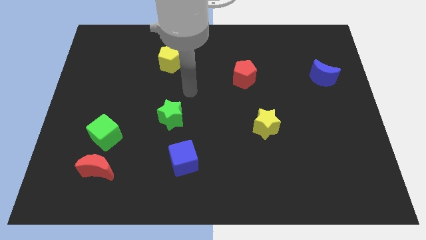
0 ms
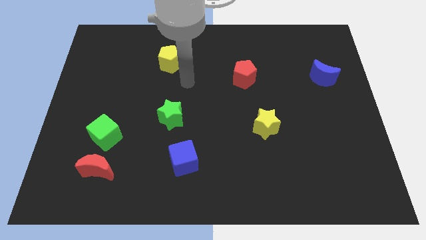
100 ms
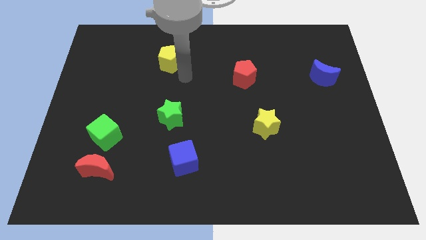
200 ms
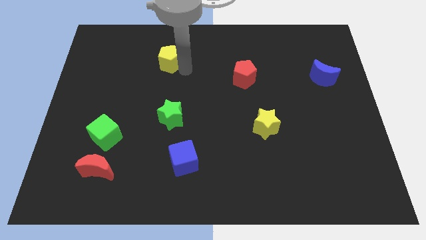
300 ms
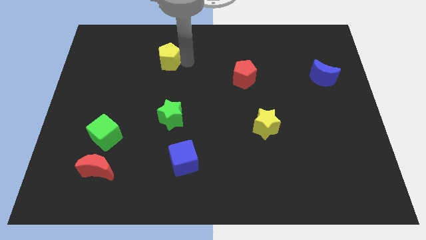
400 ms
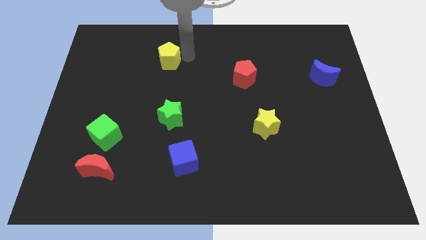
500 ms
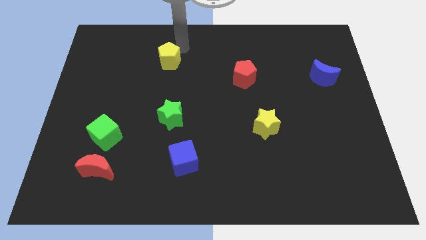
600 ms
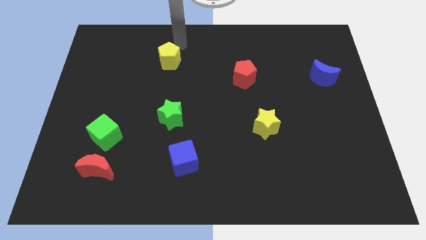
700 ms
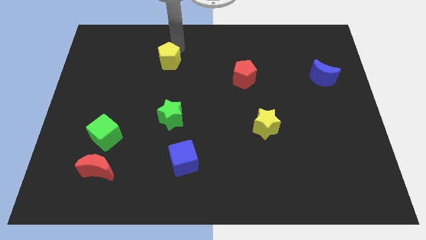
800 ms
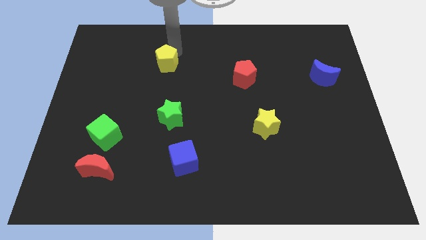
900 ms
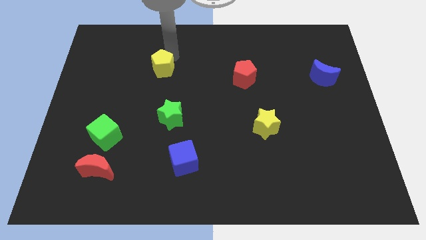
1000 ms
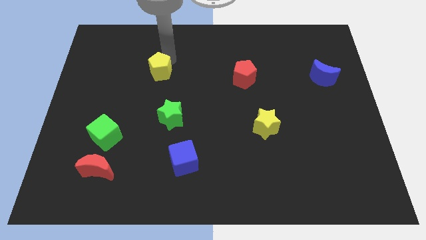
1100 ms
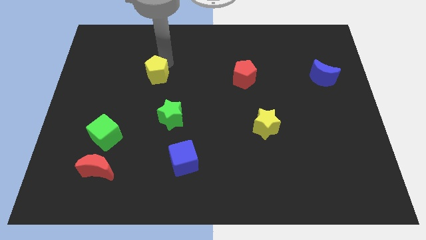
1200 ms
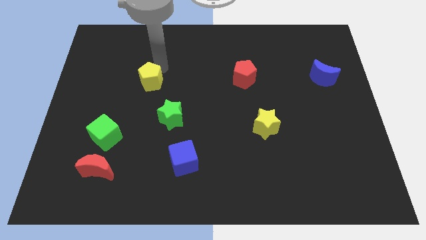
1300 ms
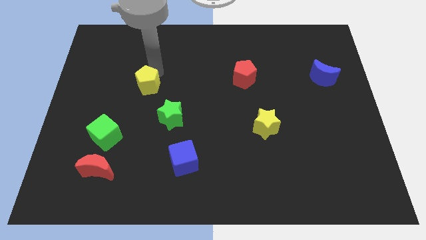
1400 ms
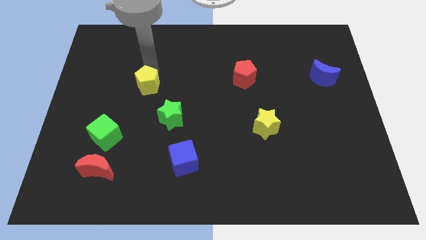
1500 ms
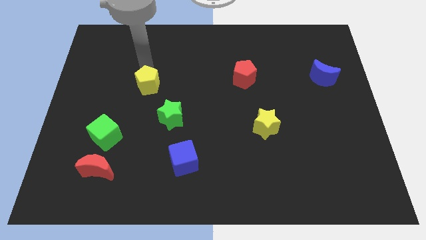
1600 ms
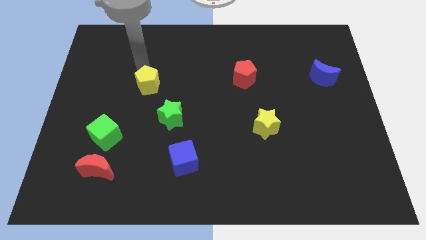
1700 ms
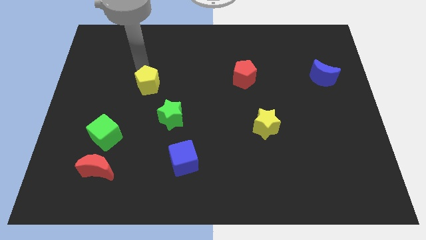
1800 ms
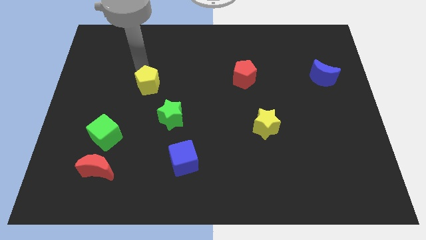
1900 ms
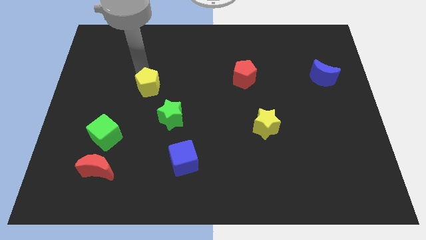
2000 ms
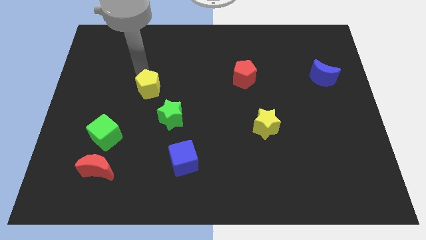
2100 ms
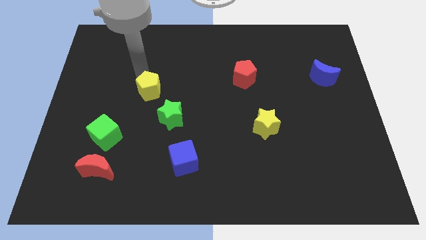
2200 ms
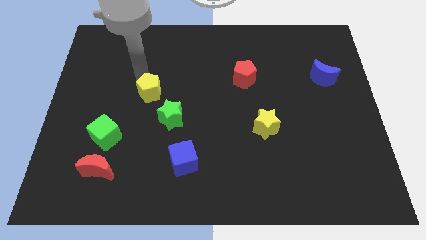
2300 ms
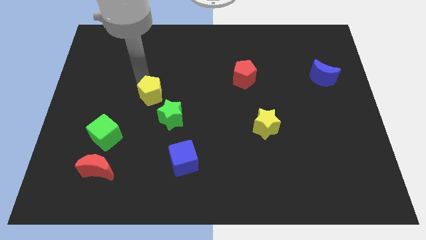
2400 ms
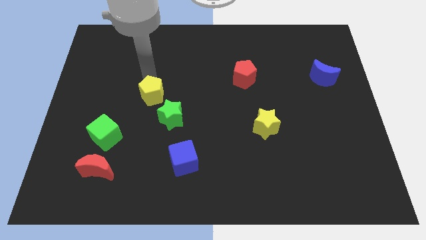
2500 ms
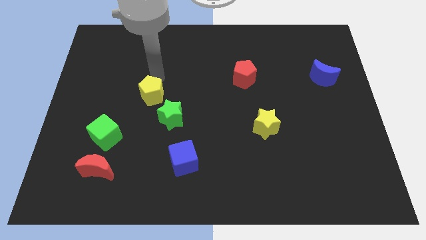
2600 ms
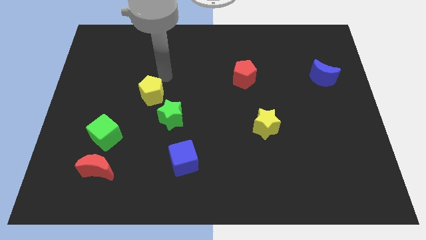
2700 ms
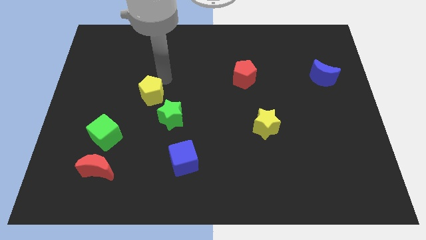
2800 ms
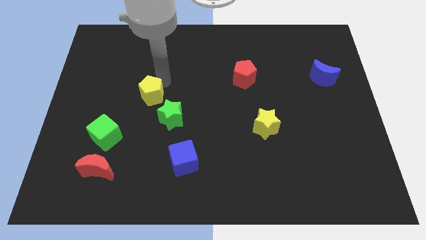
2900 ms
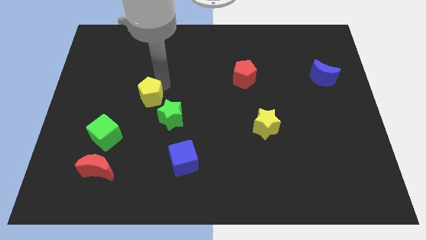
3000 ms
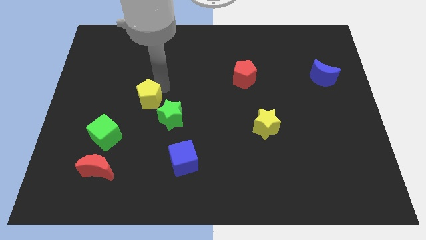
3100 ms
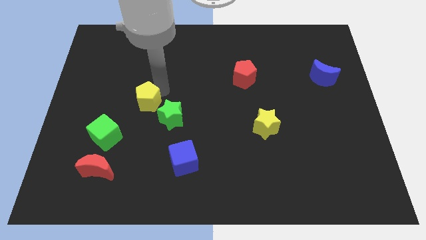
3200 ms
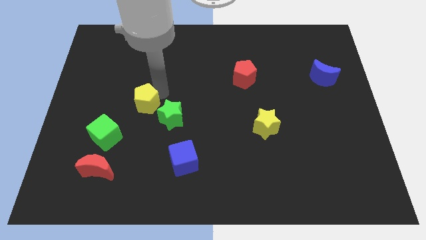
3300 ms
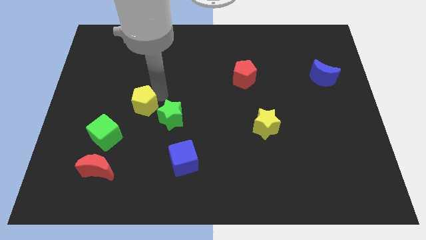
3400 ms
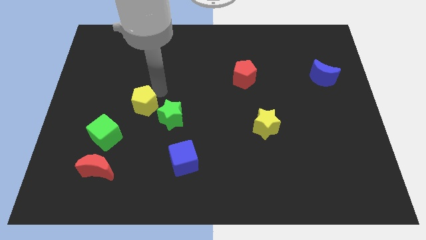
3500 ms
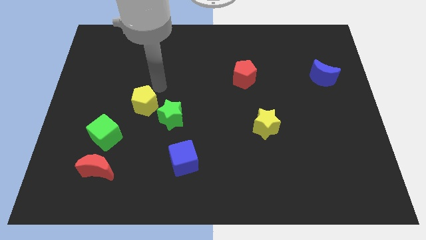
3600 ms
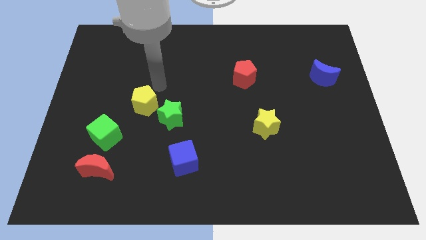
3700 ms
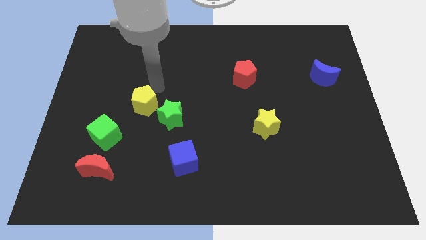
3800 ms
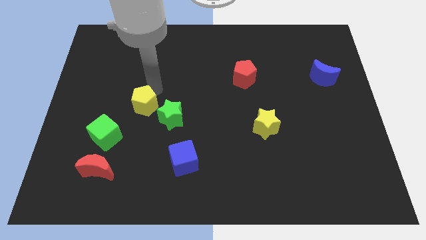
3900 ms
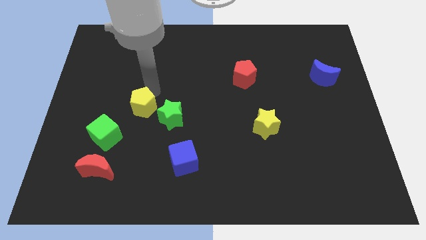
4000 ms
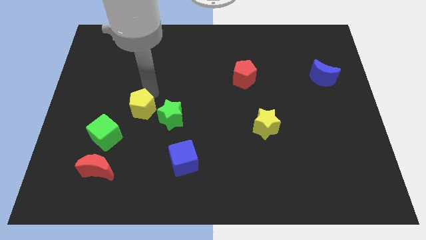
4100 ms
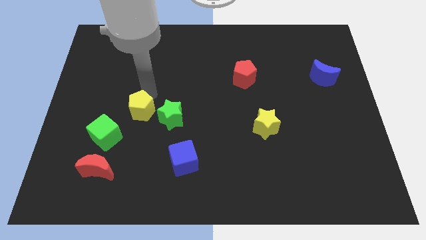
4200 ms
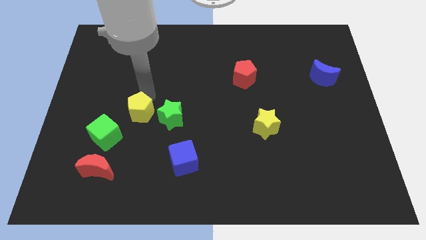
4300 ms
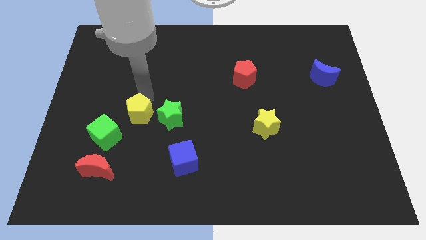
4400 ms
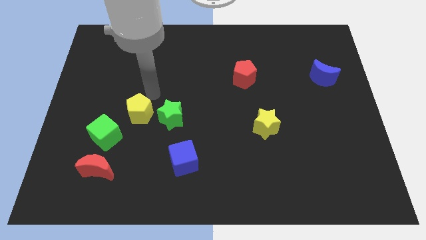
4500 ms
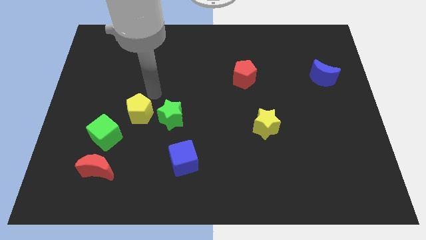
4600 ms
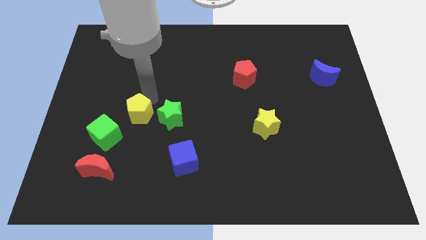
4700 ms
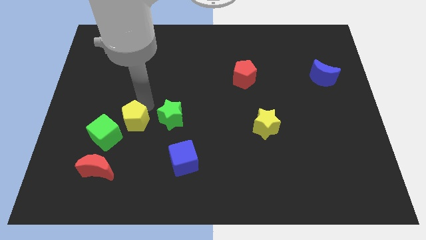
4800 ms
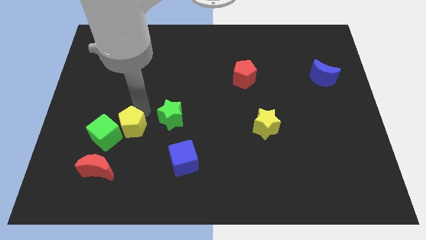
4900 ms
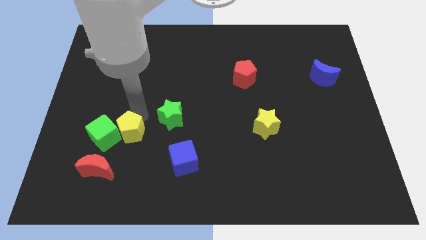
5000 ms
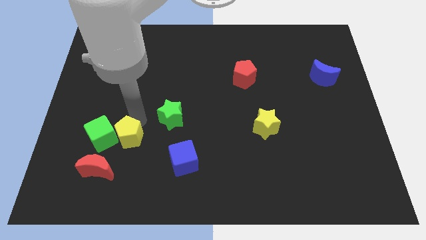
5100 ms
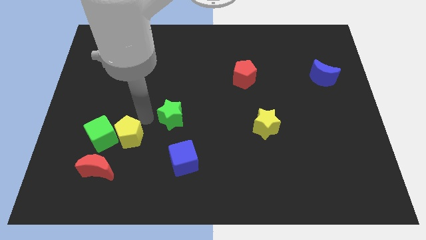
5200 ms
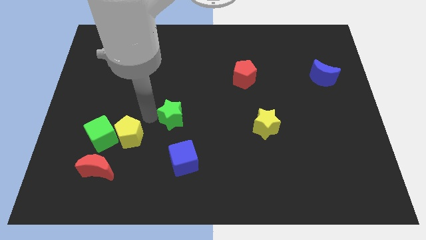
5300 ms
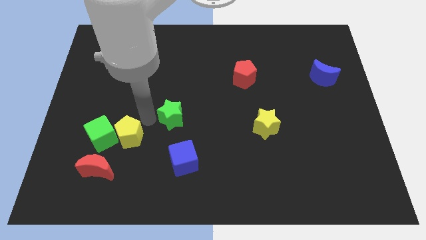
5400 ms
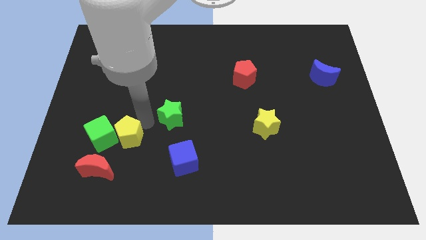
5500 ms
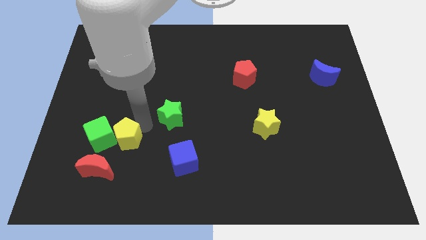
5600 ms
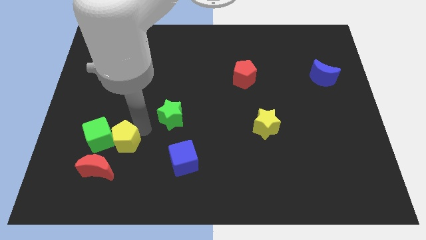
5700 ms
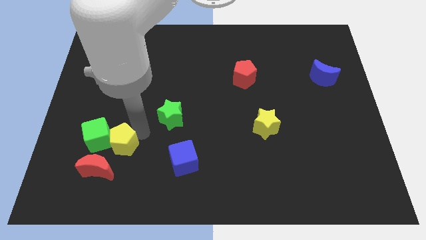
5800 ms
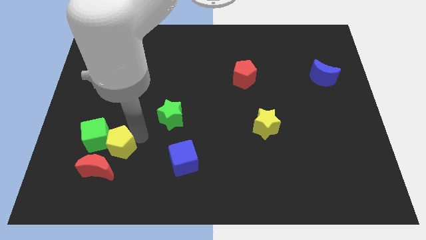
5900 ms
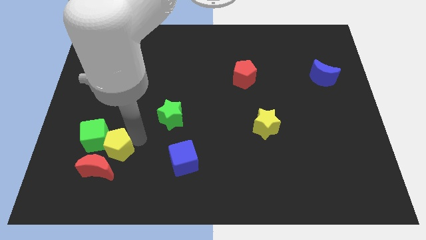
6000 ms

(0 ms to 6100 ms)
slide the yellow pentagon close to the red moon
